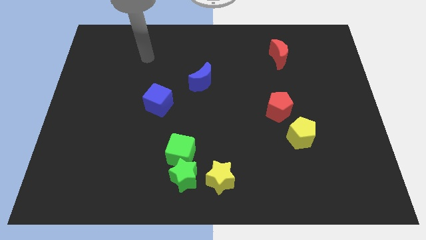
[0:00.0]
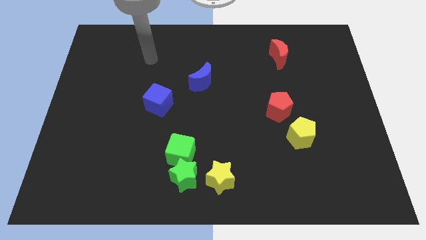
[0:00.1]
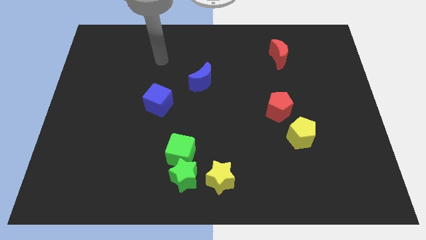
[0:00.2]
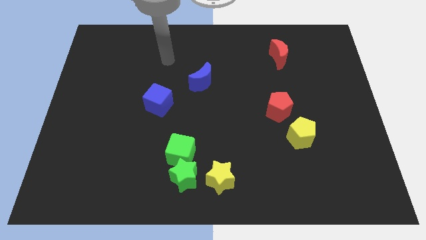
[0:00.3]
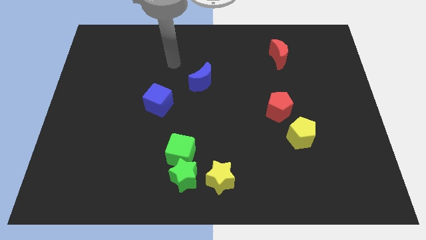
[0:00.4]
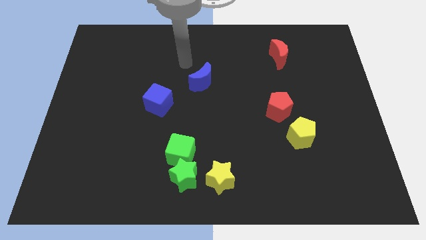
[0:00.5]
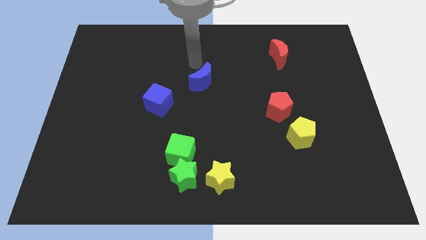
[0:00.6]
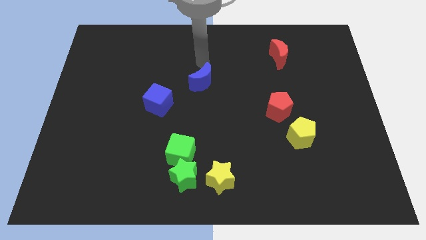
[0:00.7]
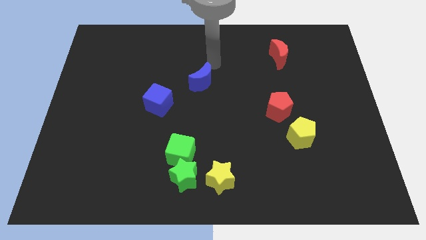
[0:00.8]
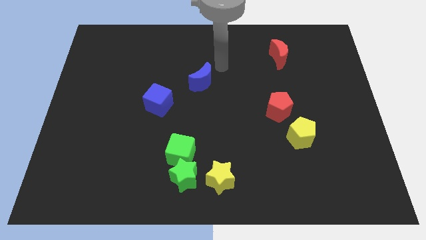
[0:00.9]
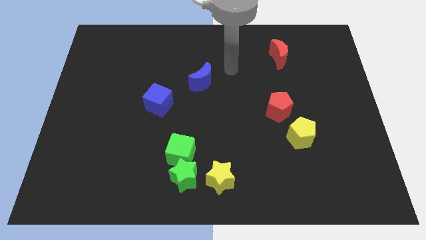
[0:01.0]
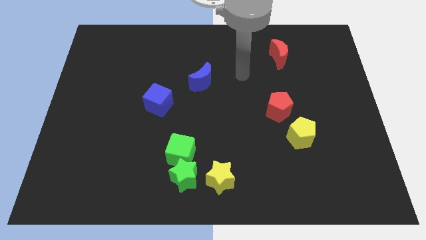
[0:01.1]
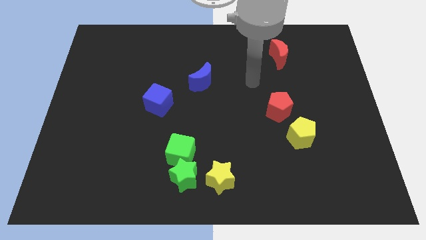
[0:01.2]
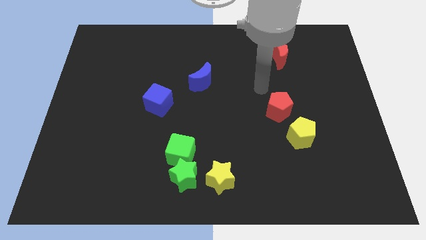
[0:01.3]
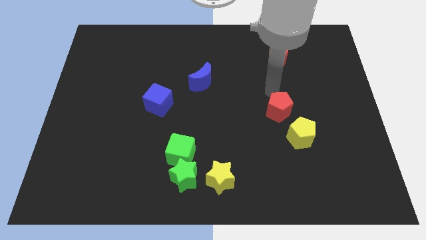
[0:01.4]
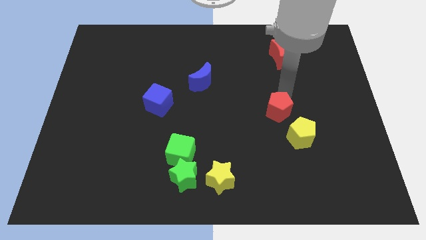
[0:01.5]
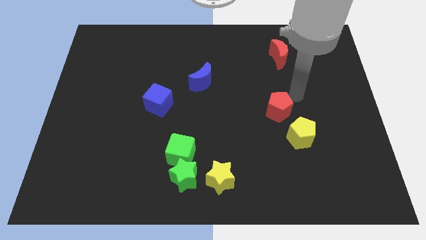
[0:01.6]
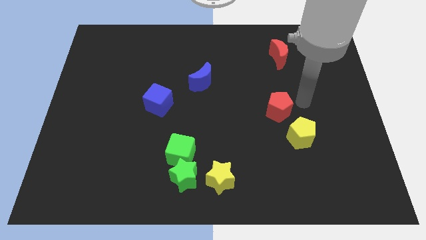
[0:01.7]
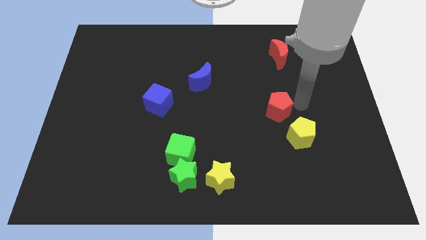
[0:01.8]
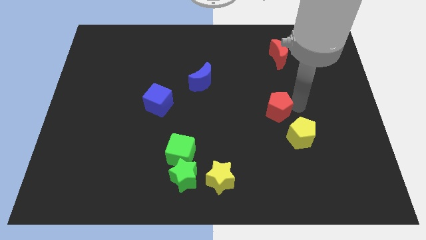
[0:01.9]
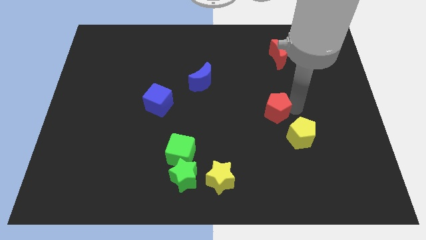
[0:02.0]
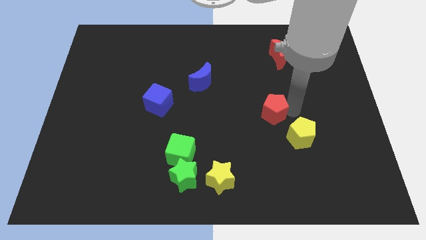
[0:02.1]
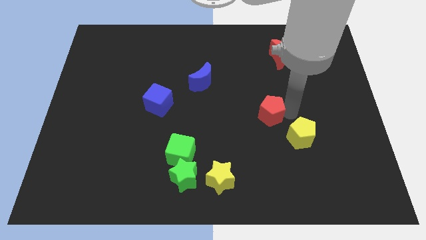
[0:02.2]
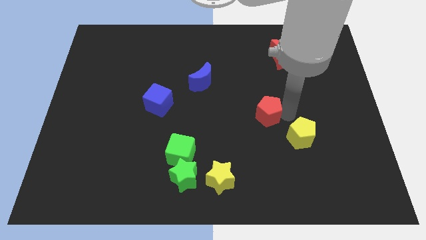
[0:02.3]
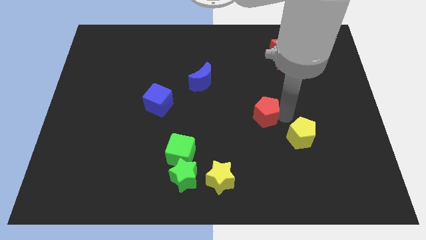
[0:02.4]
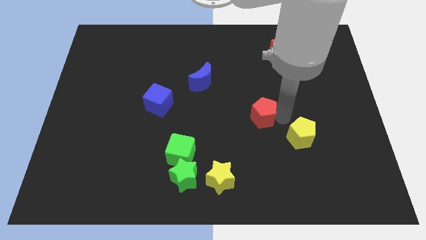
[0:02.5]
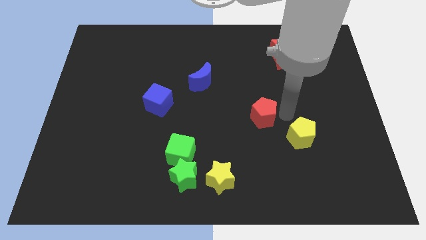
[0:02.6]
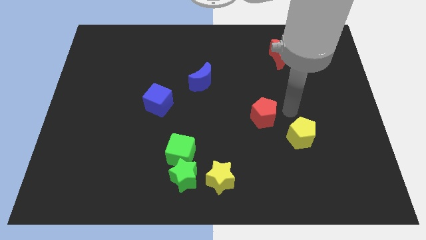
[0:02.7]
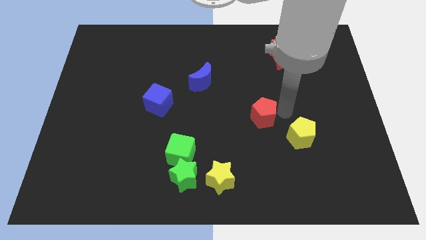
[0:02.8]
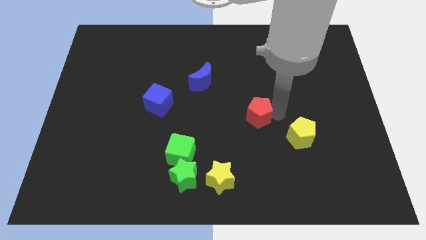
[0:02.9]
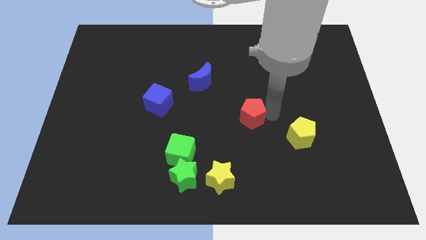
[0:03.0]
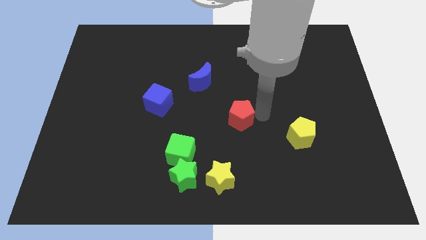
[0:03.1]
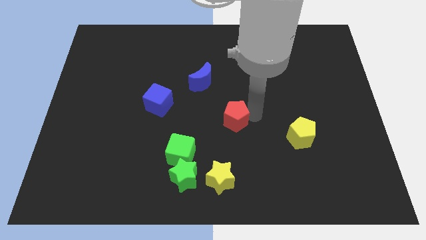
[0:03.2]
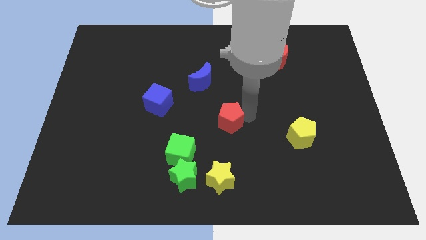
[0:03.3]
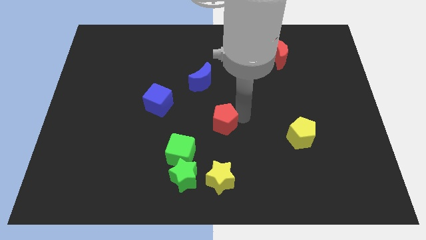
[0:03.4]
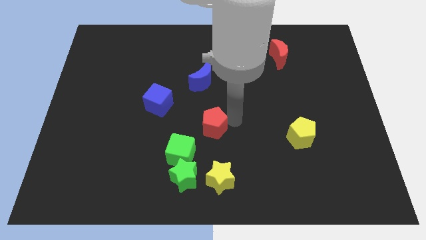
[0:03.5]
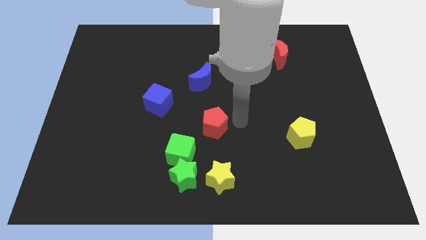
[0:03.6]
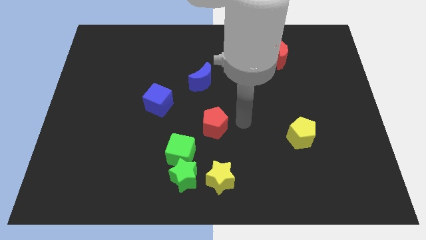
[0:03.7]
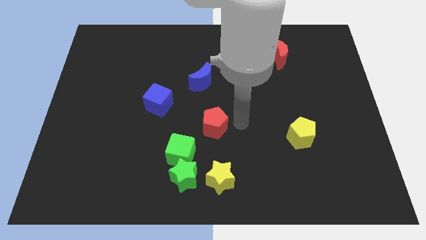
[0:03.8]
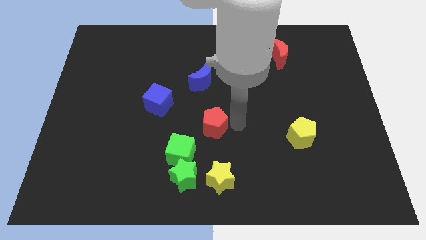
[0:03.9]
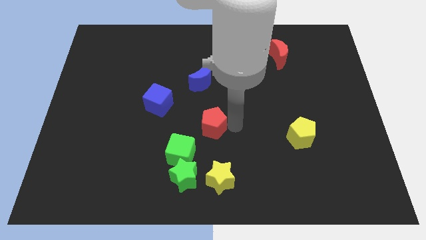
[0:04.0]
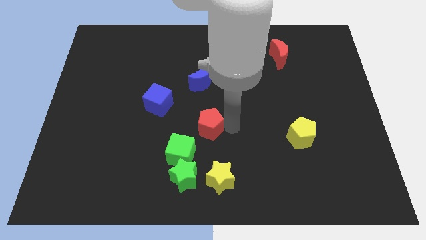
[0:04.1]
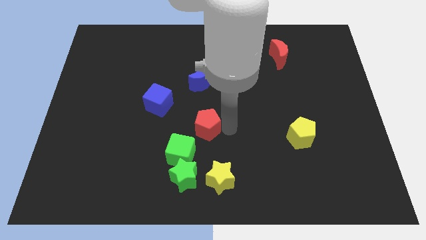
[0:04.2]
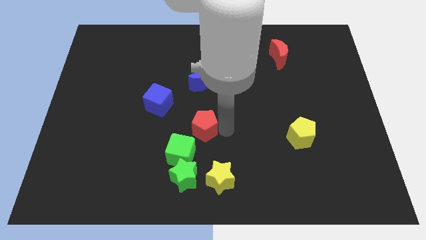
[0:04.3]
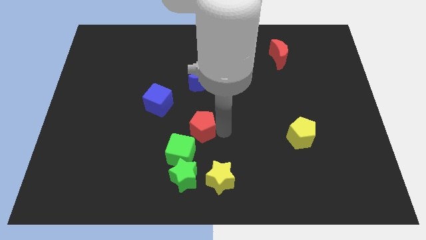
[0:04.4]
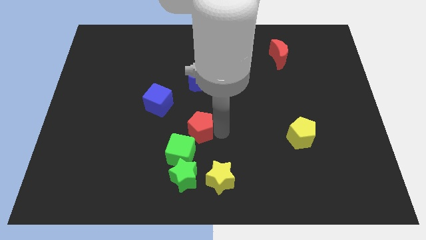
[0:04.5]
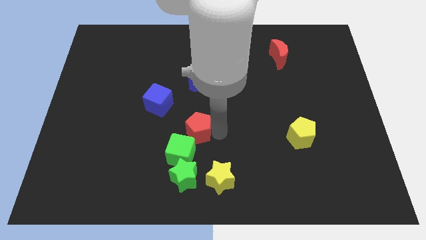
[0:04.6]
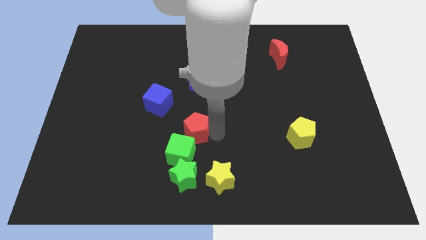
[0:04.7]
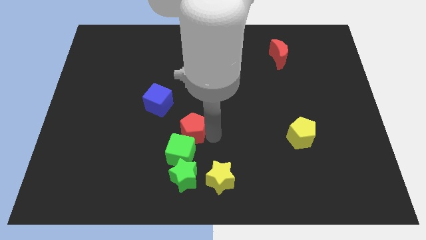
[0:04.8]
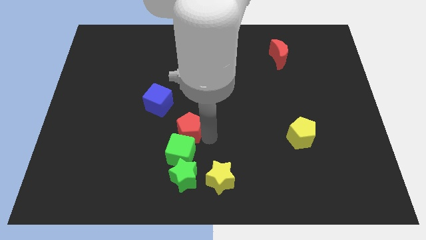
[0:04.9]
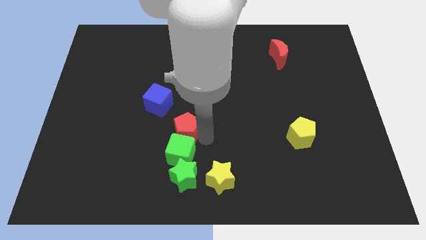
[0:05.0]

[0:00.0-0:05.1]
move the red pentagon to the top left side of the green cube

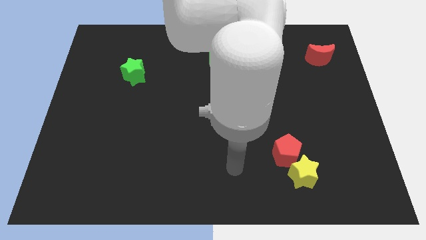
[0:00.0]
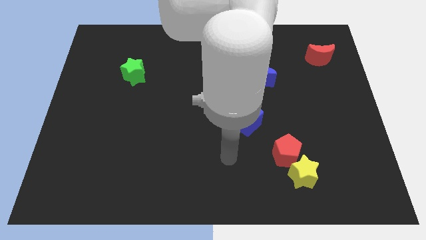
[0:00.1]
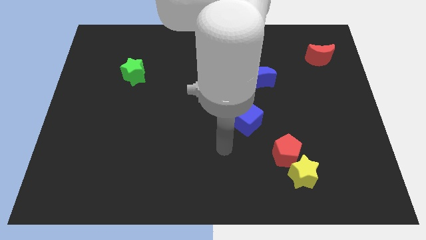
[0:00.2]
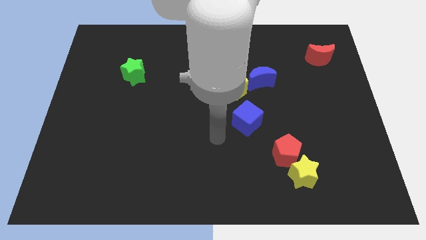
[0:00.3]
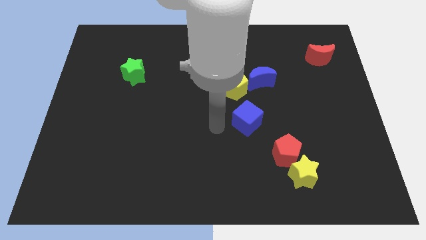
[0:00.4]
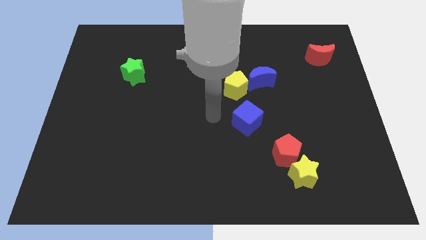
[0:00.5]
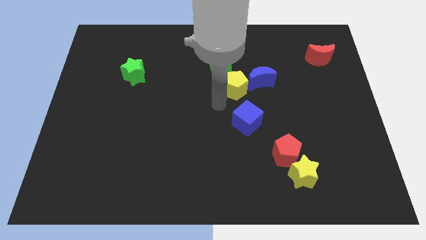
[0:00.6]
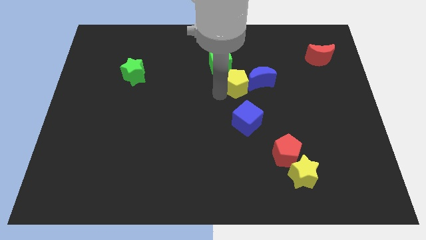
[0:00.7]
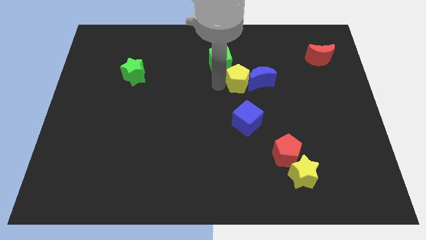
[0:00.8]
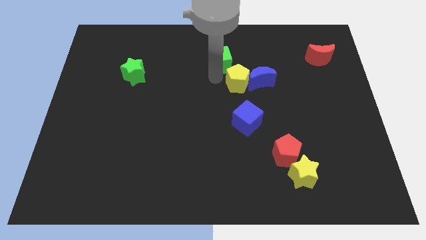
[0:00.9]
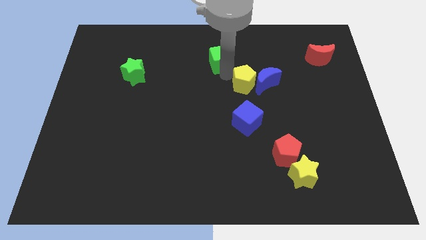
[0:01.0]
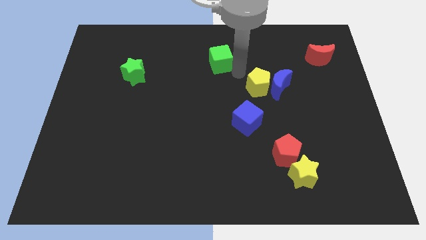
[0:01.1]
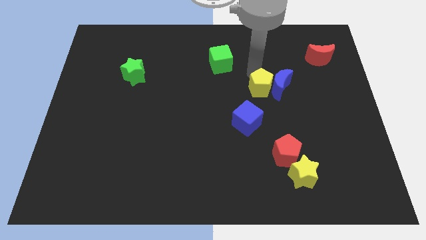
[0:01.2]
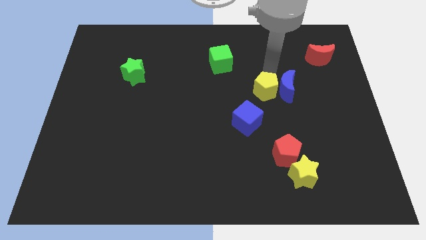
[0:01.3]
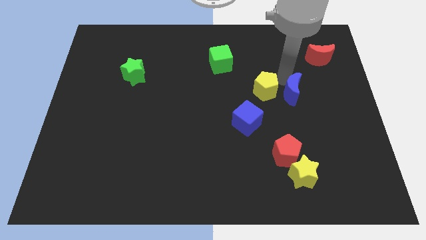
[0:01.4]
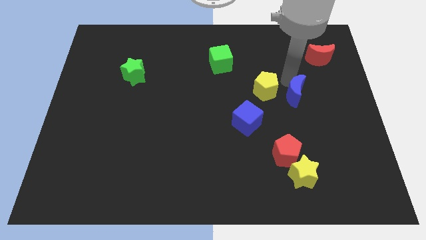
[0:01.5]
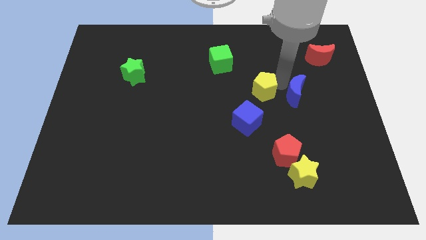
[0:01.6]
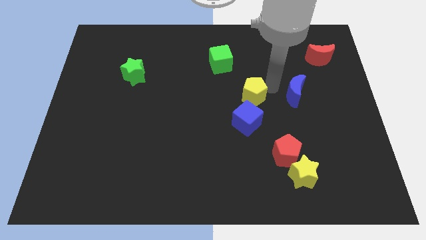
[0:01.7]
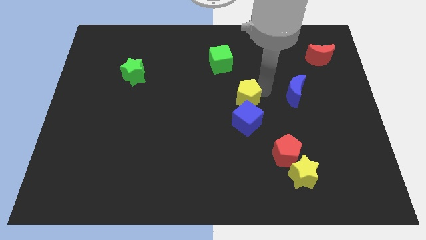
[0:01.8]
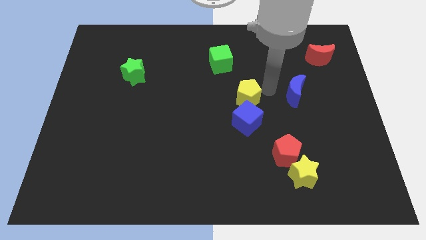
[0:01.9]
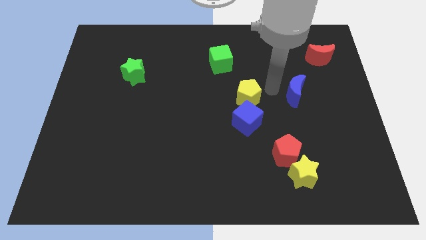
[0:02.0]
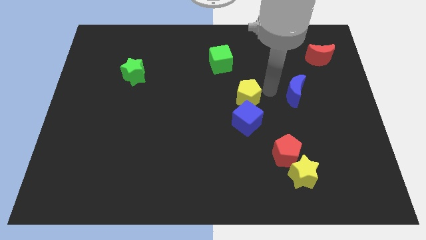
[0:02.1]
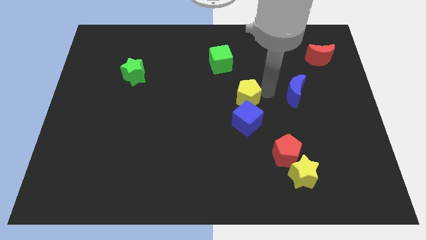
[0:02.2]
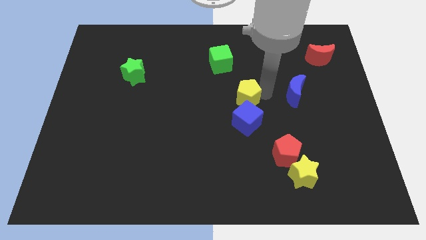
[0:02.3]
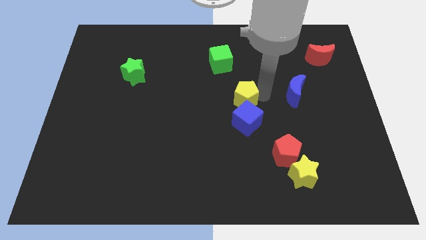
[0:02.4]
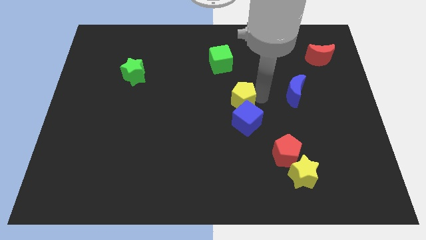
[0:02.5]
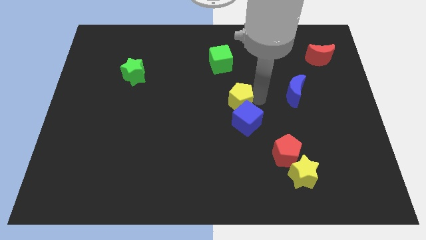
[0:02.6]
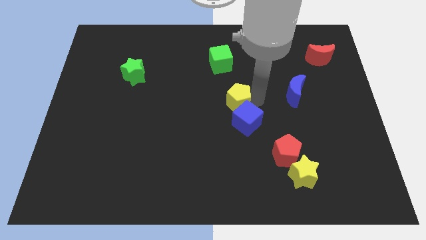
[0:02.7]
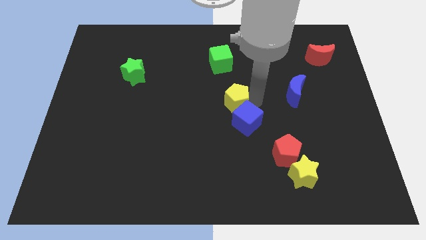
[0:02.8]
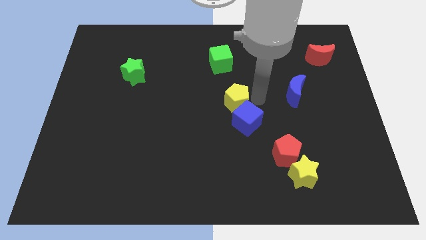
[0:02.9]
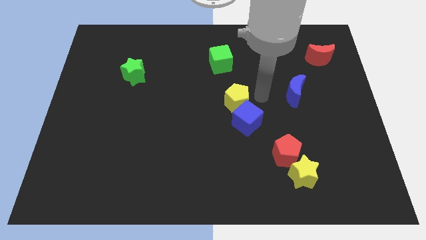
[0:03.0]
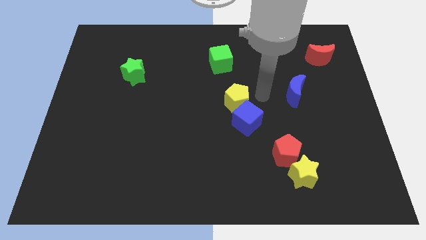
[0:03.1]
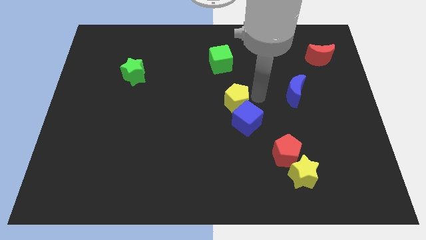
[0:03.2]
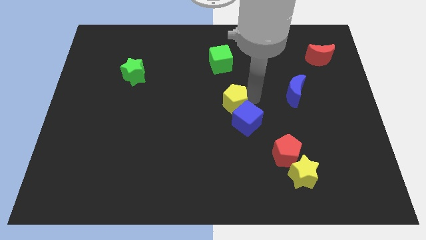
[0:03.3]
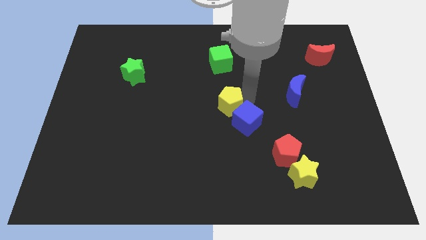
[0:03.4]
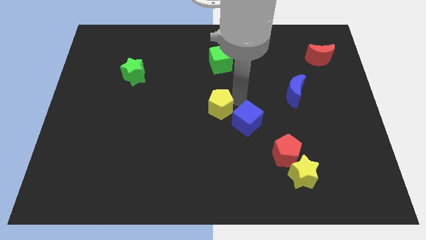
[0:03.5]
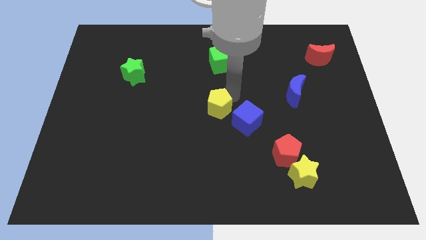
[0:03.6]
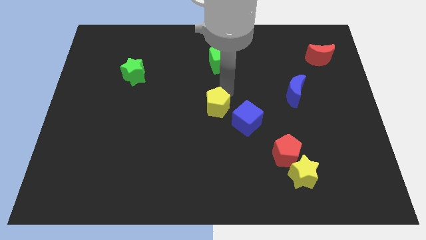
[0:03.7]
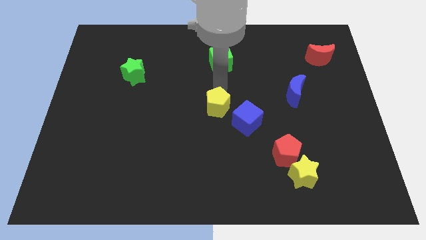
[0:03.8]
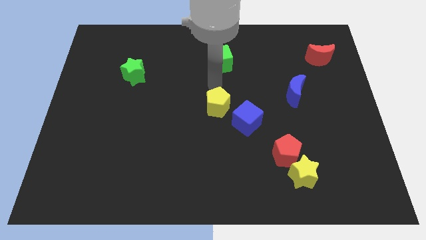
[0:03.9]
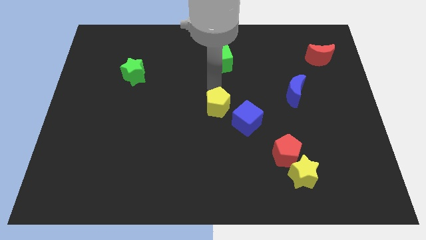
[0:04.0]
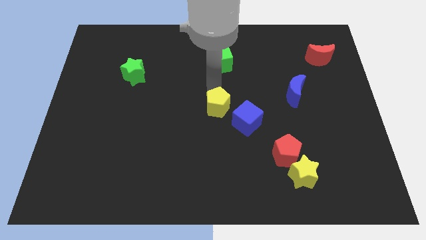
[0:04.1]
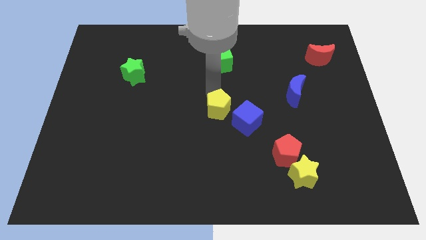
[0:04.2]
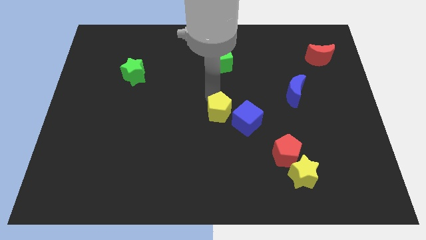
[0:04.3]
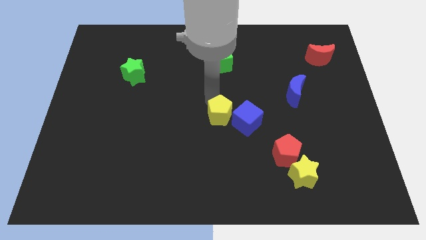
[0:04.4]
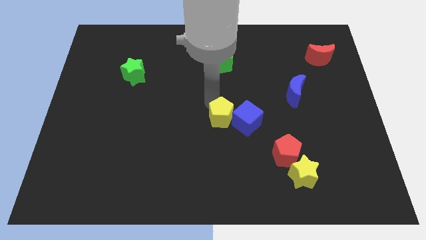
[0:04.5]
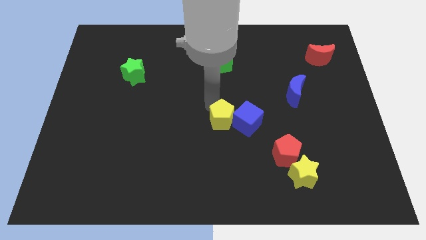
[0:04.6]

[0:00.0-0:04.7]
put the yellow pentagon to the bottom left of the blue cube
